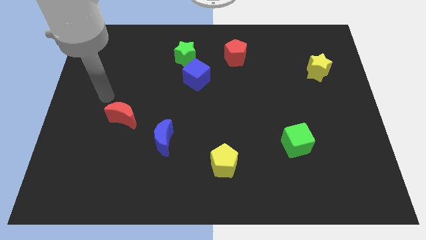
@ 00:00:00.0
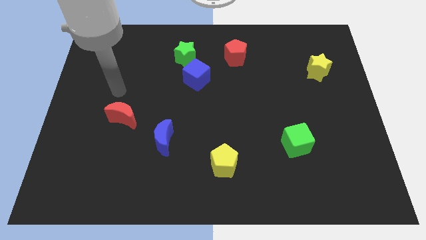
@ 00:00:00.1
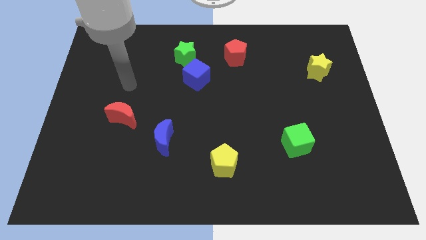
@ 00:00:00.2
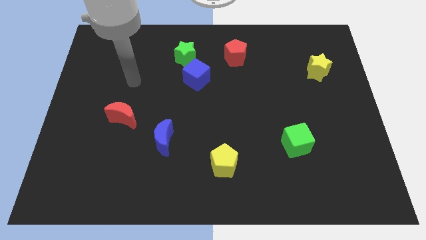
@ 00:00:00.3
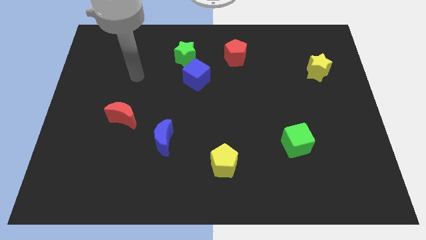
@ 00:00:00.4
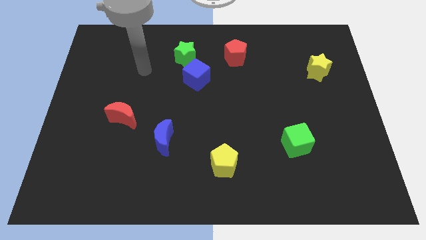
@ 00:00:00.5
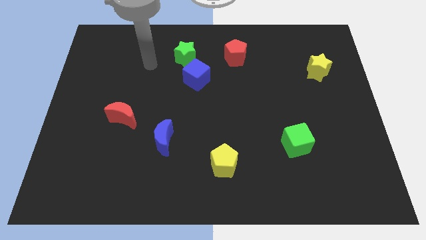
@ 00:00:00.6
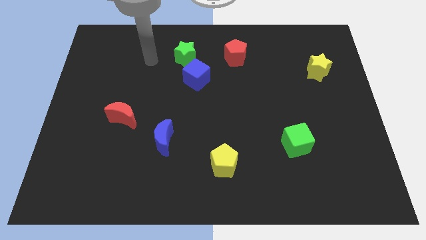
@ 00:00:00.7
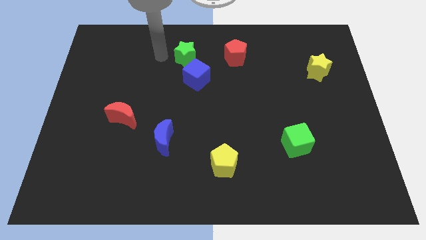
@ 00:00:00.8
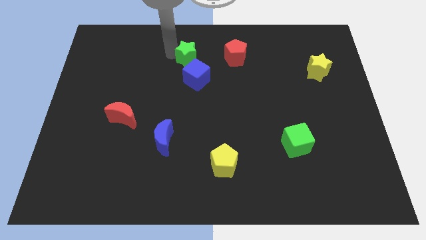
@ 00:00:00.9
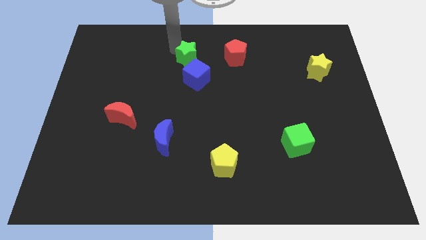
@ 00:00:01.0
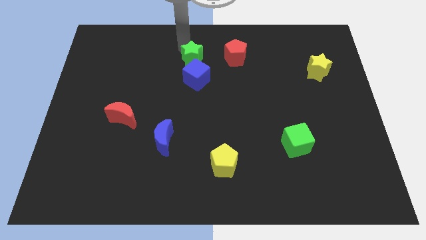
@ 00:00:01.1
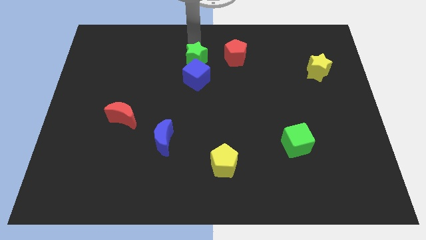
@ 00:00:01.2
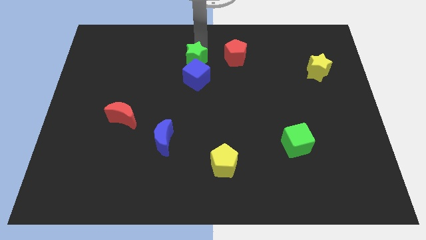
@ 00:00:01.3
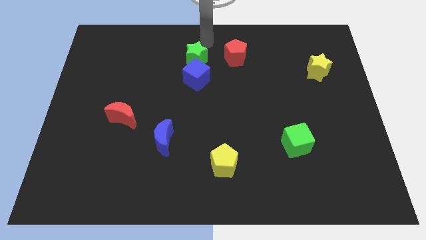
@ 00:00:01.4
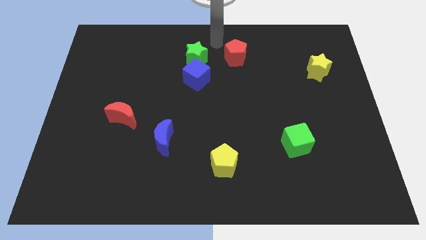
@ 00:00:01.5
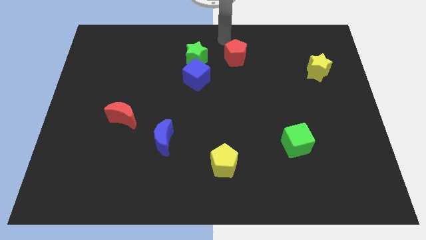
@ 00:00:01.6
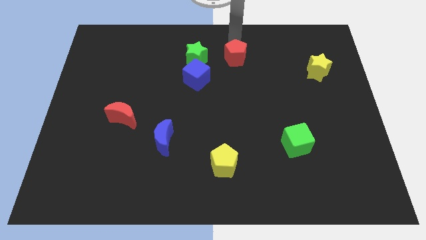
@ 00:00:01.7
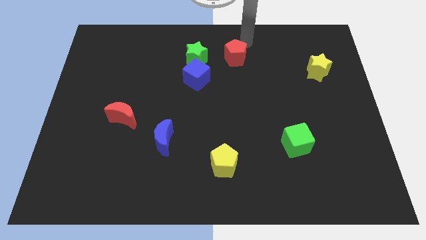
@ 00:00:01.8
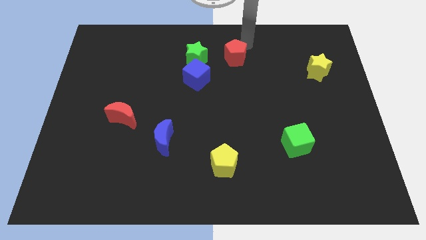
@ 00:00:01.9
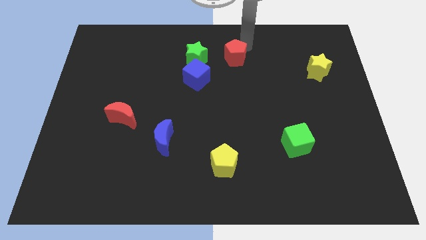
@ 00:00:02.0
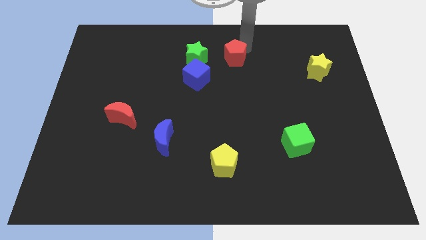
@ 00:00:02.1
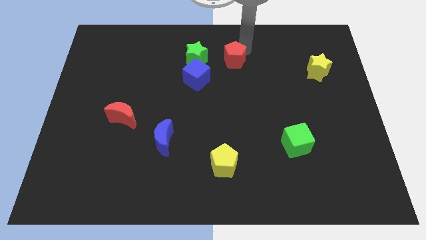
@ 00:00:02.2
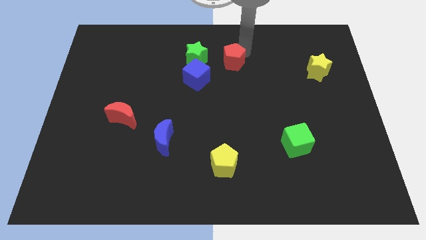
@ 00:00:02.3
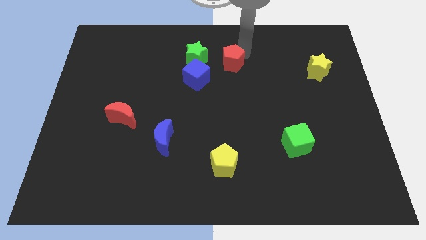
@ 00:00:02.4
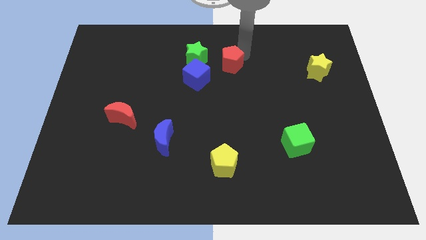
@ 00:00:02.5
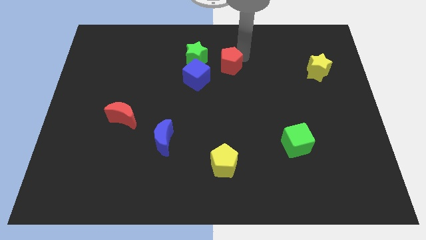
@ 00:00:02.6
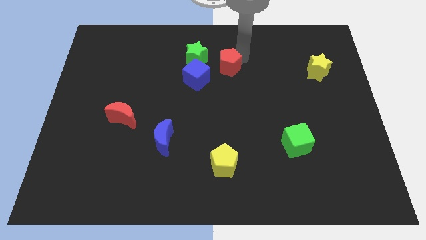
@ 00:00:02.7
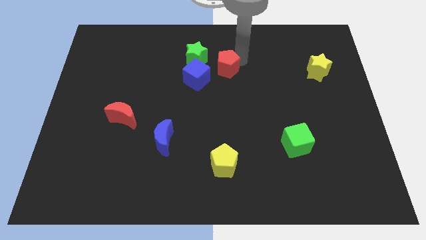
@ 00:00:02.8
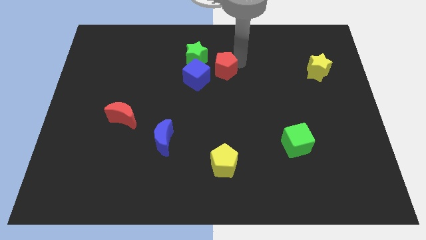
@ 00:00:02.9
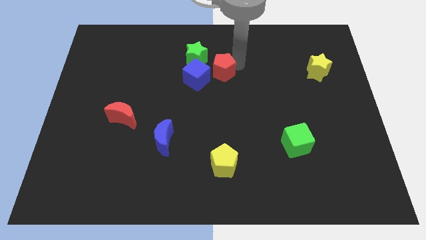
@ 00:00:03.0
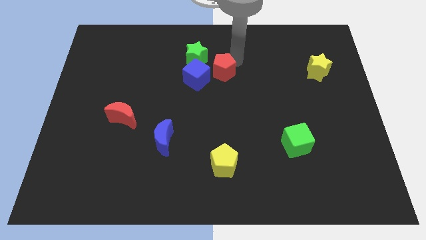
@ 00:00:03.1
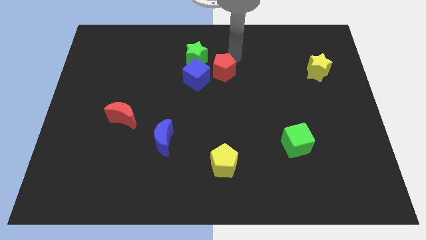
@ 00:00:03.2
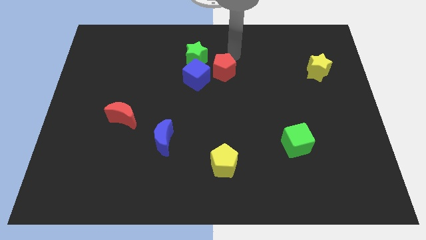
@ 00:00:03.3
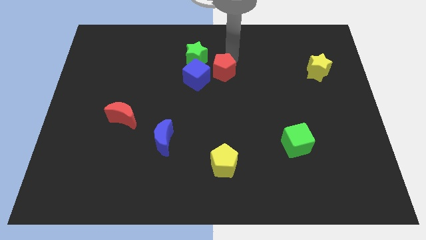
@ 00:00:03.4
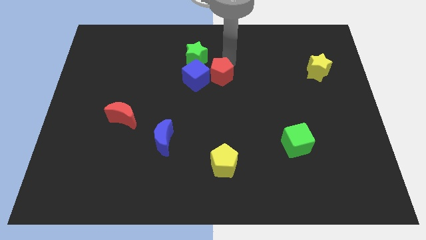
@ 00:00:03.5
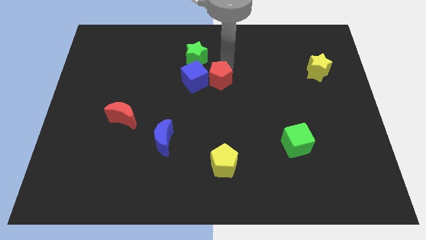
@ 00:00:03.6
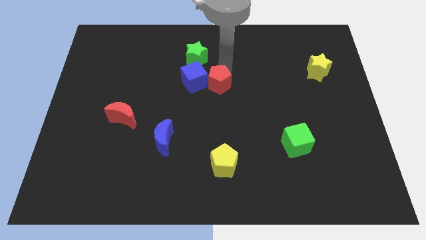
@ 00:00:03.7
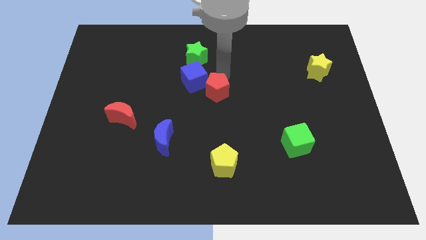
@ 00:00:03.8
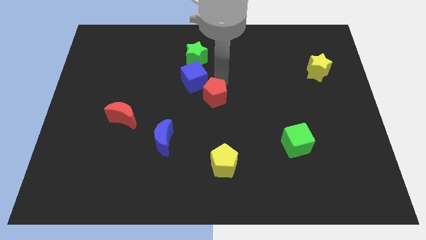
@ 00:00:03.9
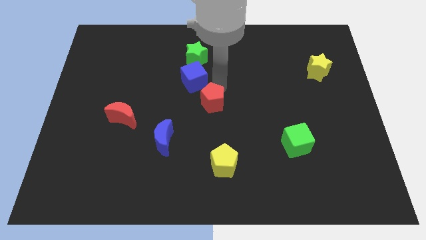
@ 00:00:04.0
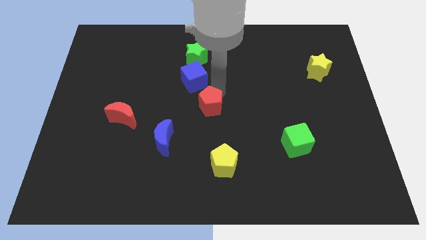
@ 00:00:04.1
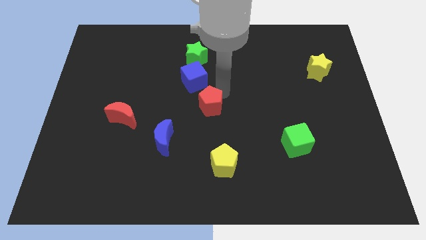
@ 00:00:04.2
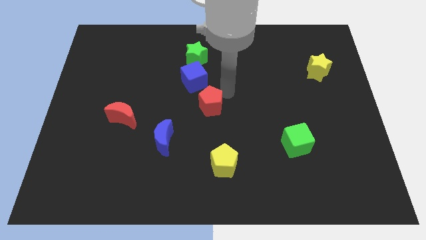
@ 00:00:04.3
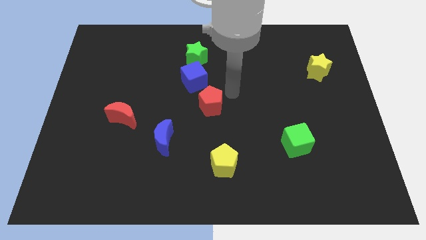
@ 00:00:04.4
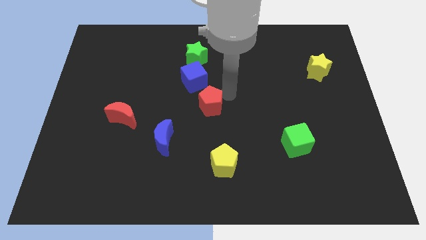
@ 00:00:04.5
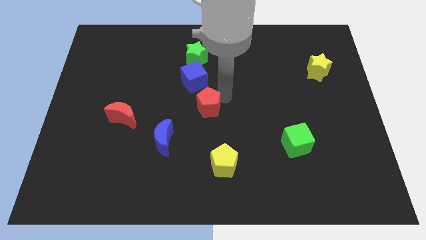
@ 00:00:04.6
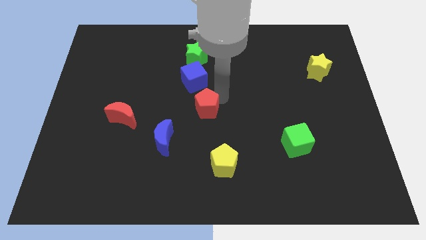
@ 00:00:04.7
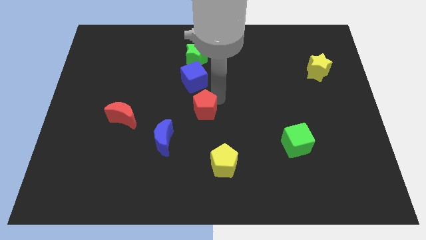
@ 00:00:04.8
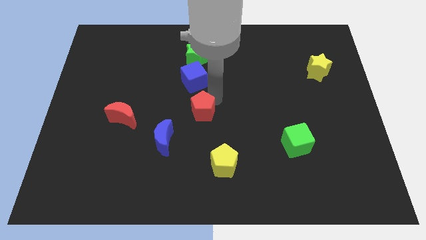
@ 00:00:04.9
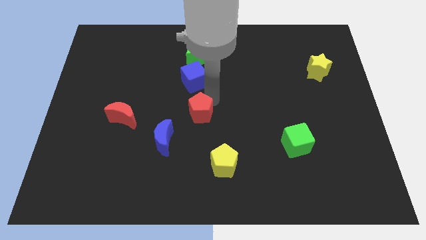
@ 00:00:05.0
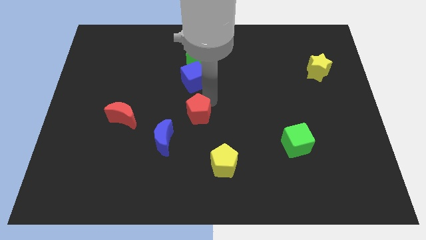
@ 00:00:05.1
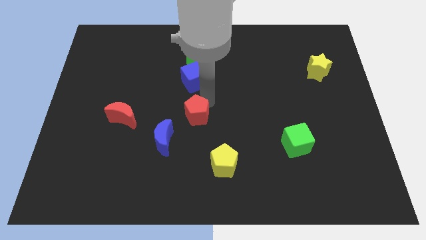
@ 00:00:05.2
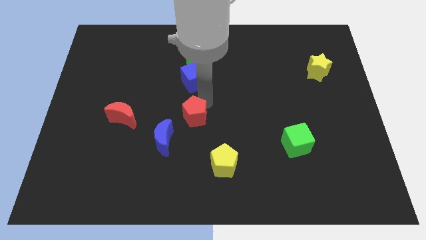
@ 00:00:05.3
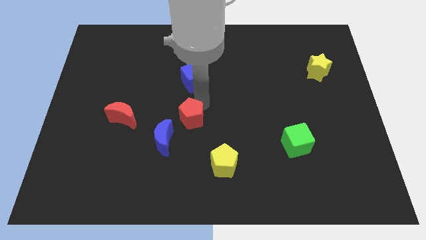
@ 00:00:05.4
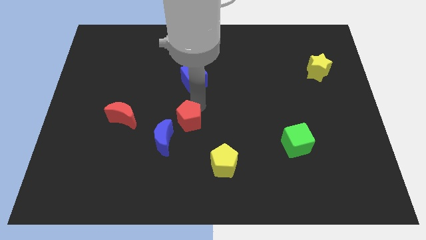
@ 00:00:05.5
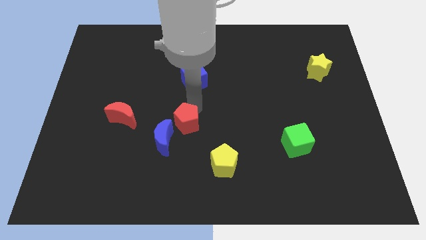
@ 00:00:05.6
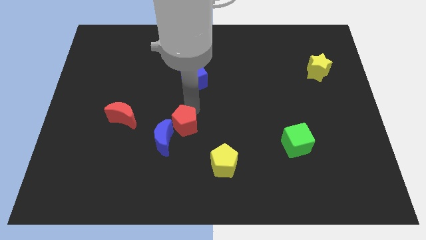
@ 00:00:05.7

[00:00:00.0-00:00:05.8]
slide the red pentagon towards the blue moon
